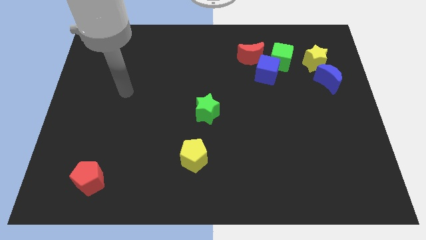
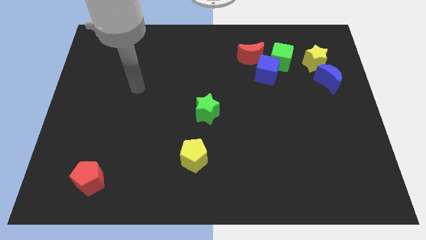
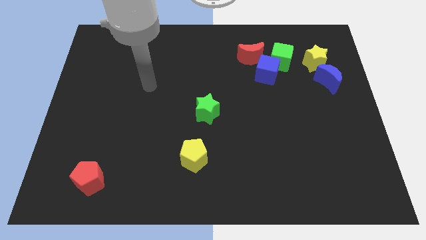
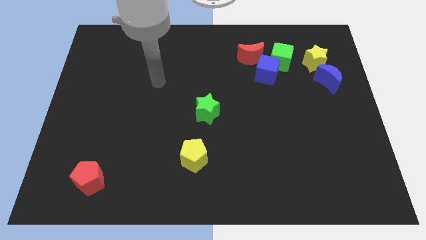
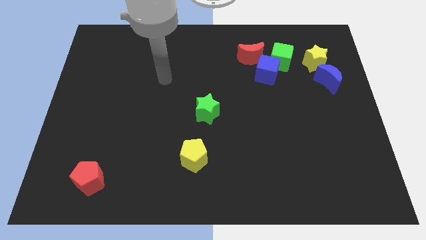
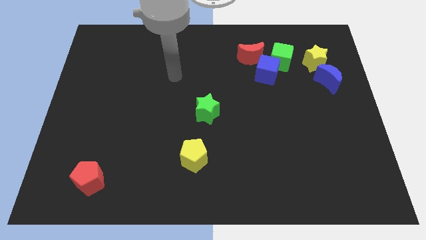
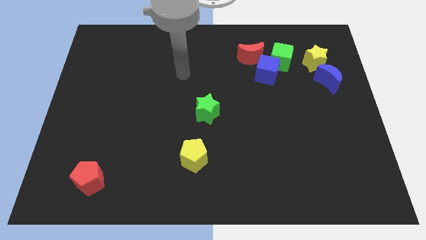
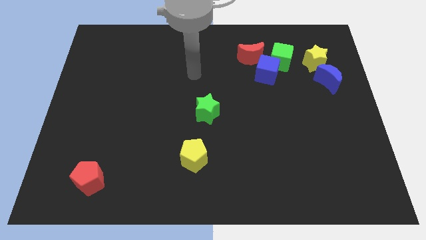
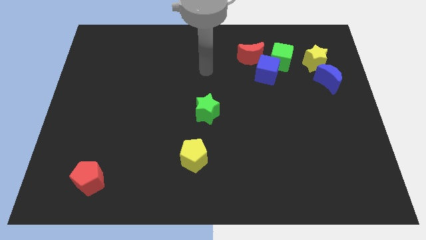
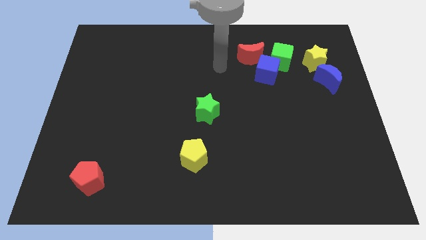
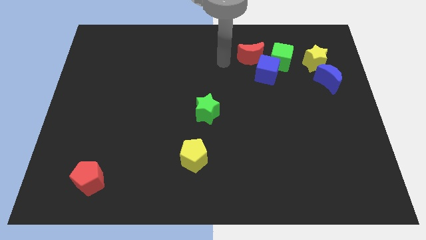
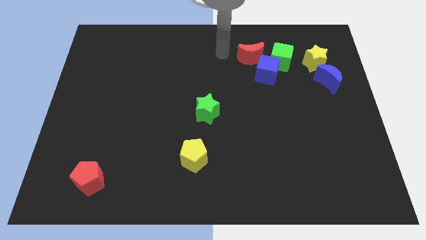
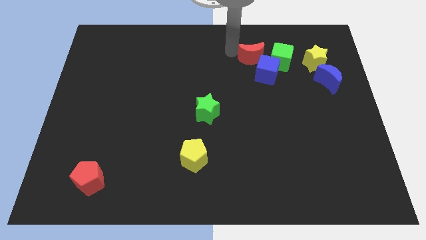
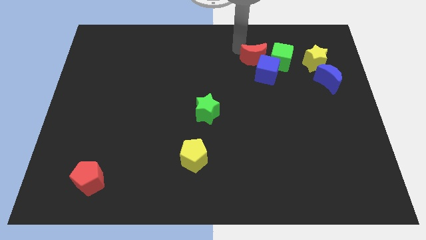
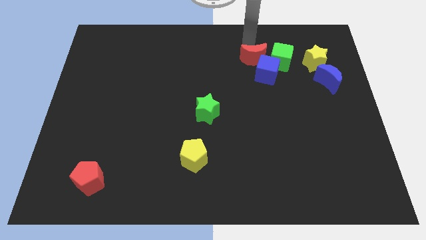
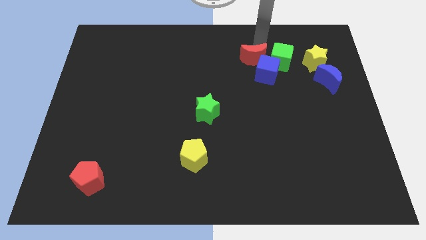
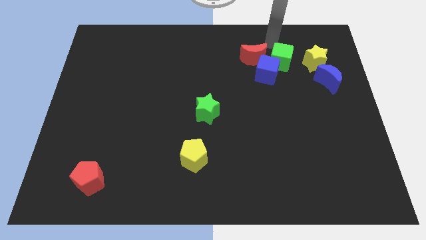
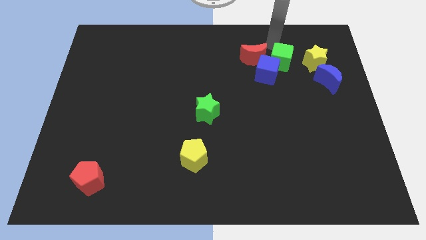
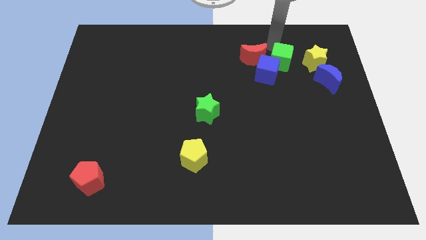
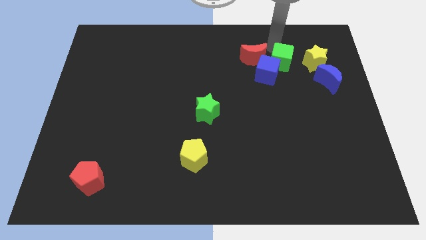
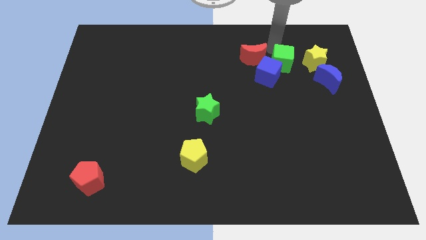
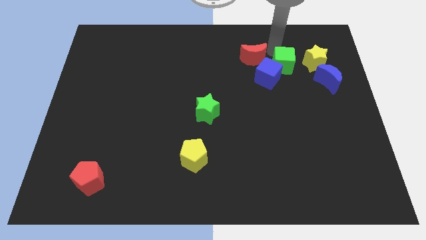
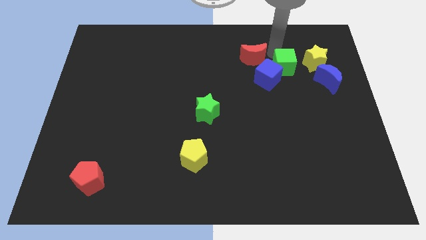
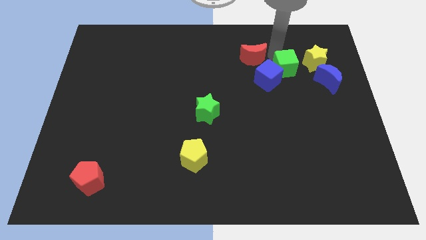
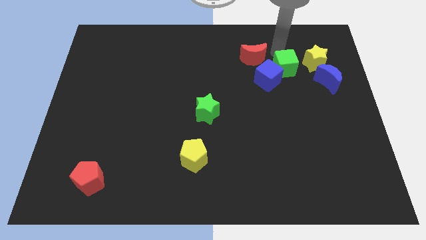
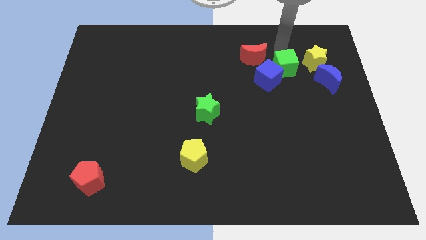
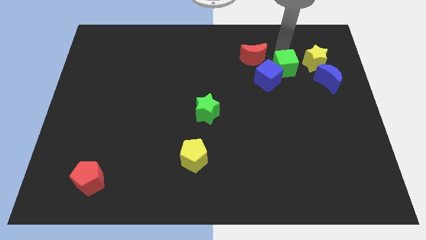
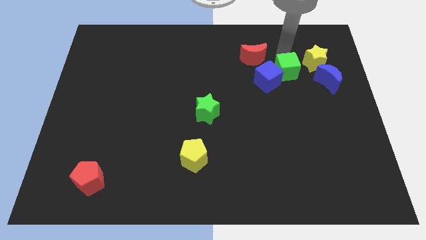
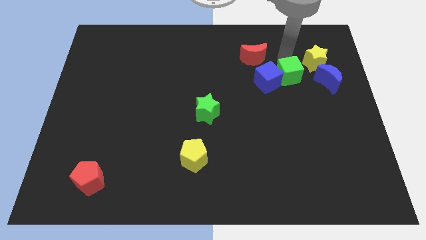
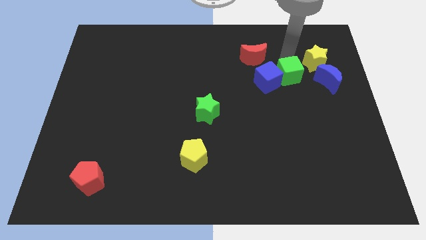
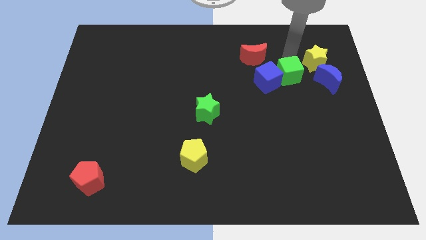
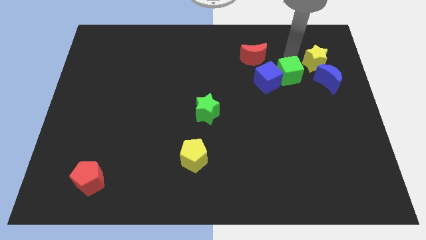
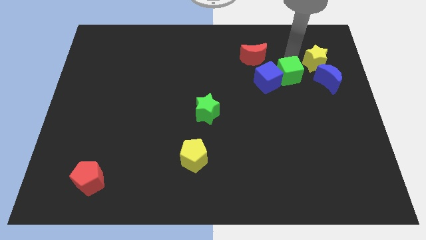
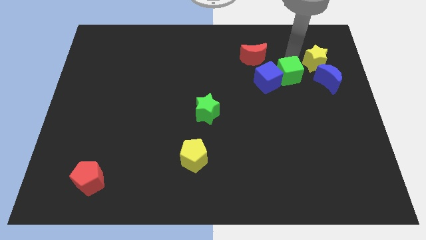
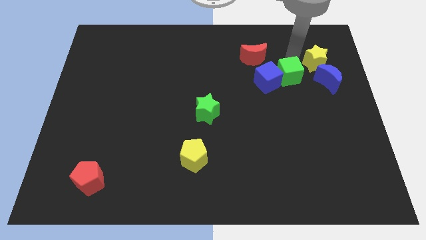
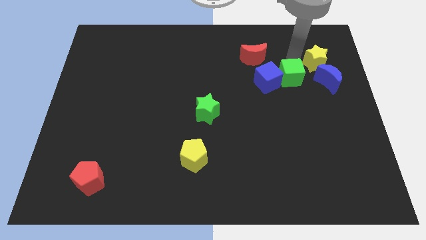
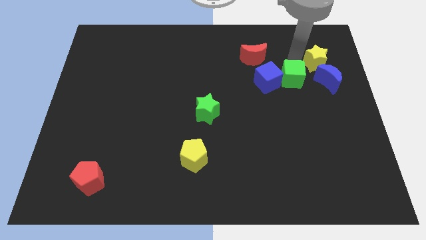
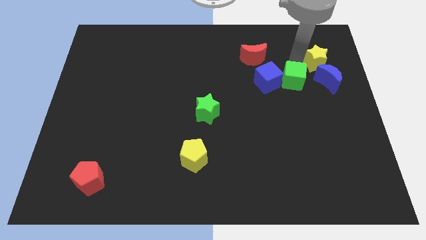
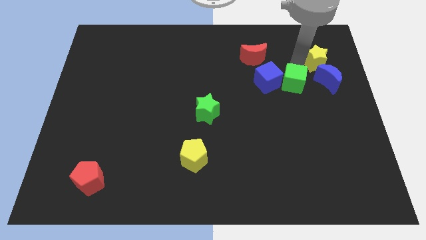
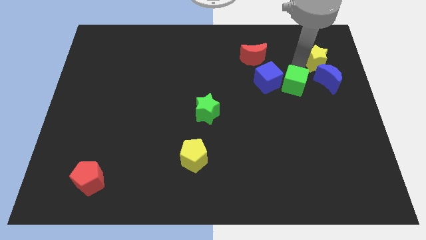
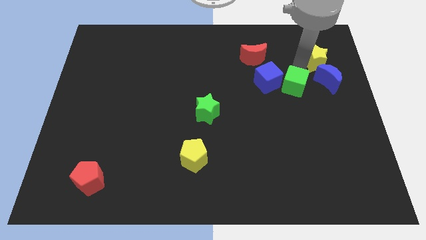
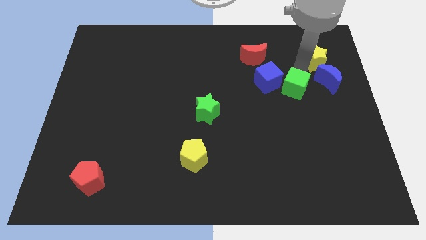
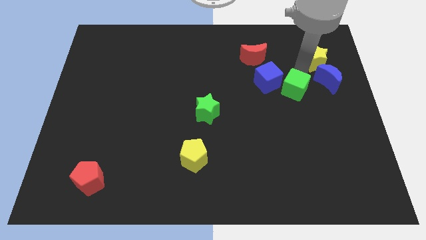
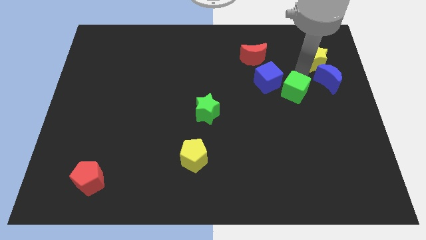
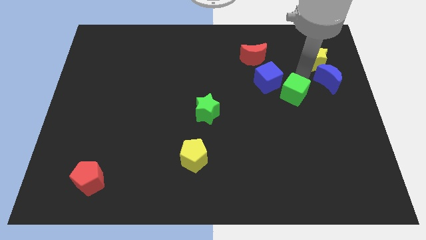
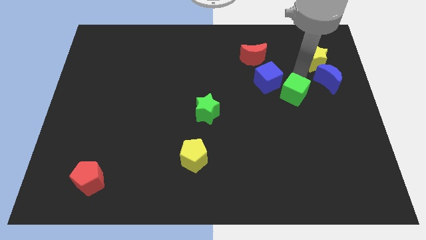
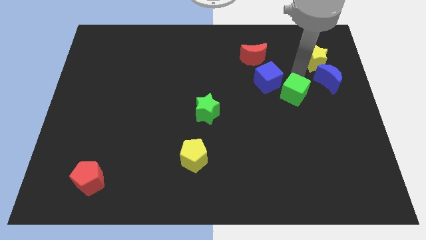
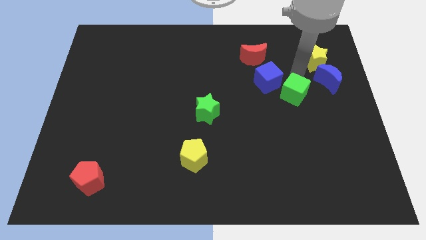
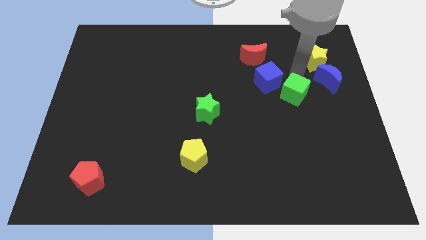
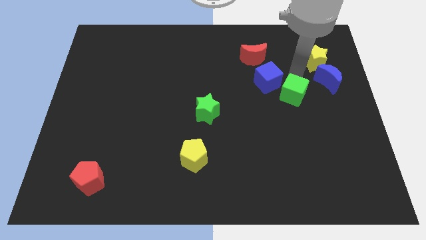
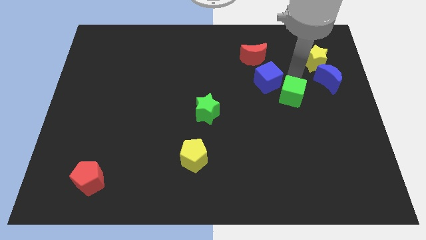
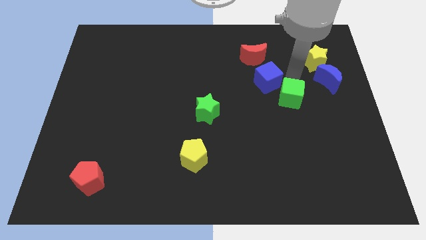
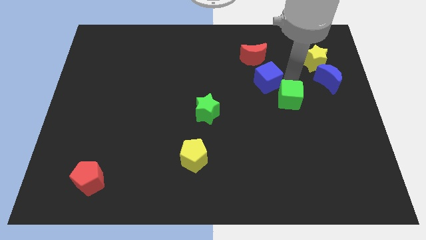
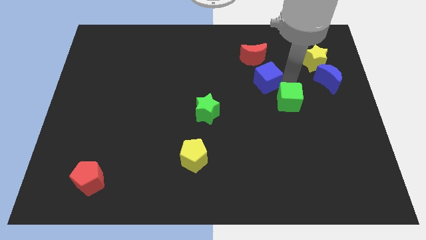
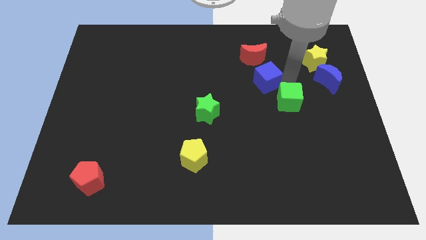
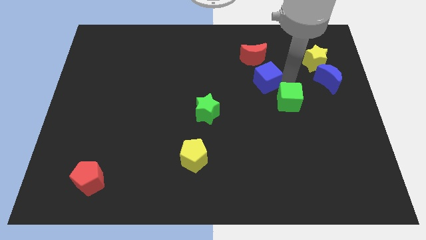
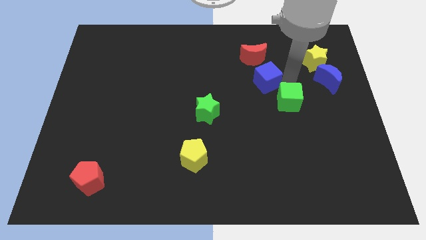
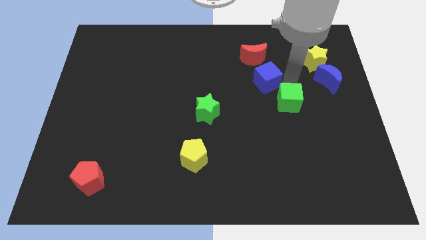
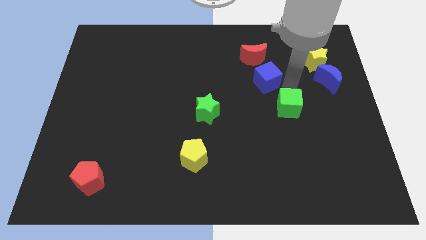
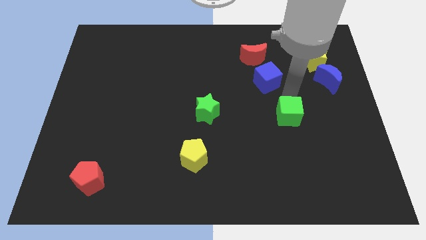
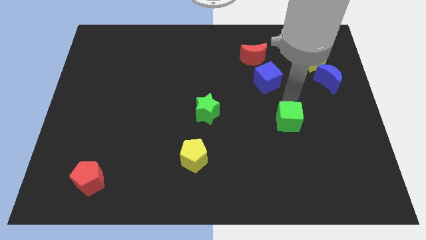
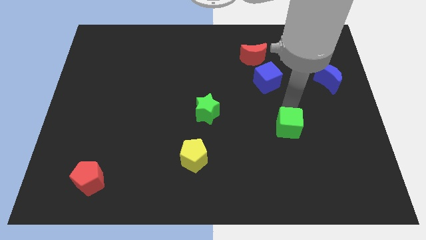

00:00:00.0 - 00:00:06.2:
slide the green cube downwards

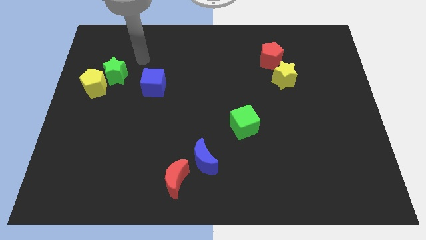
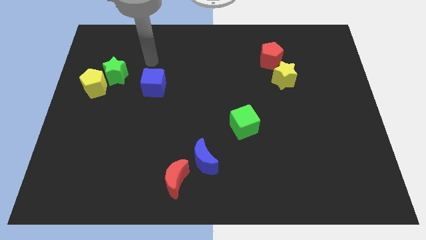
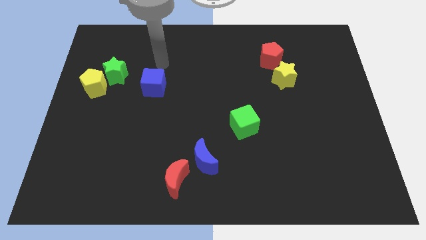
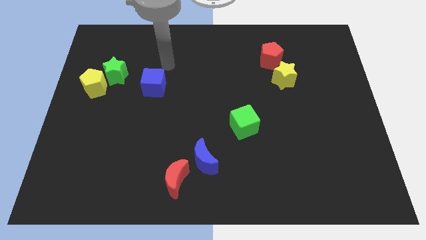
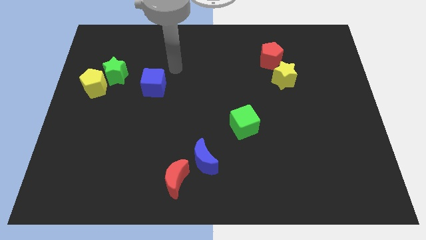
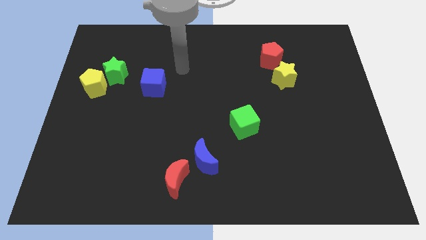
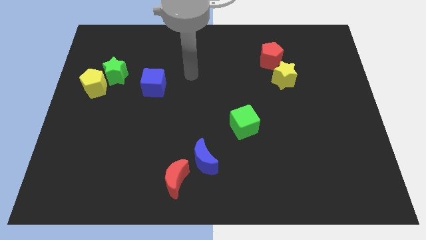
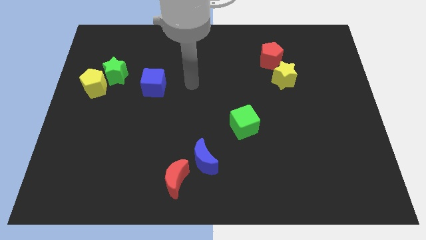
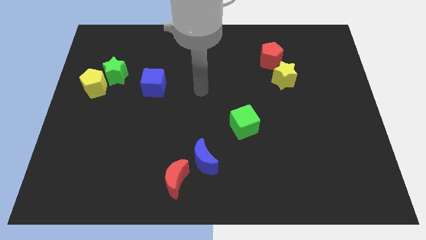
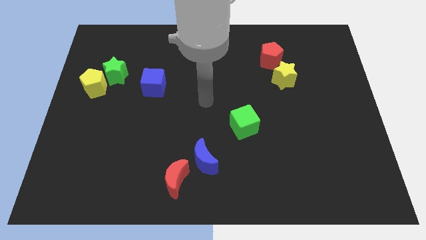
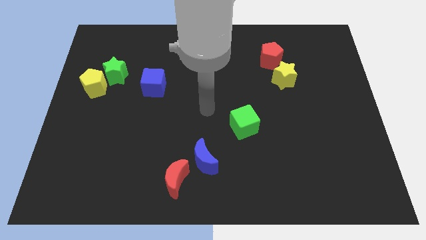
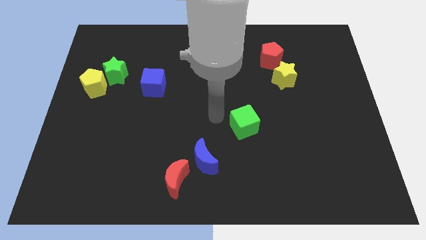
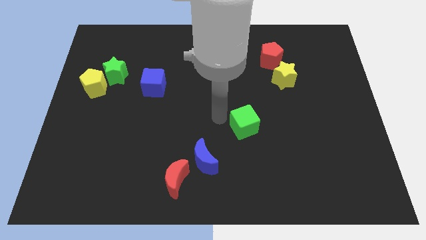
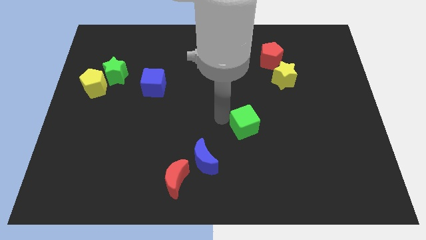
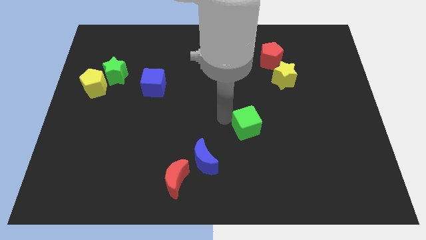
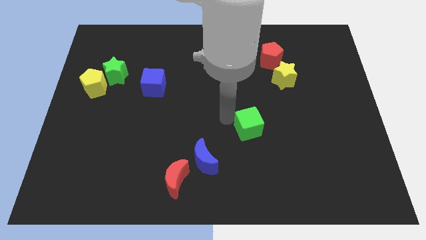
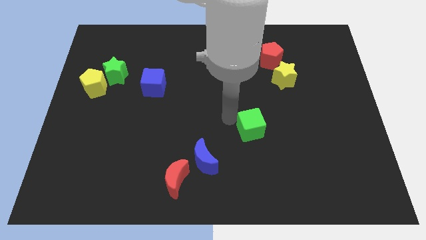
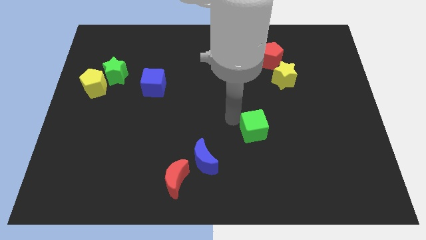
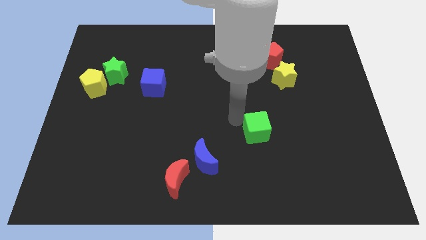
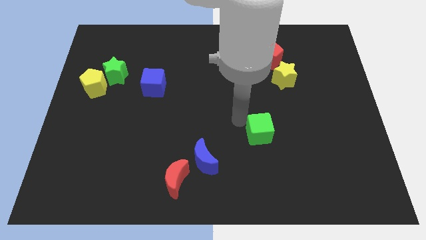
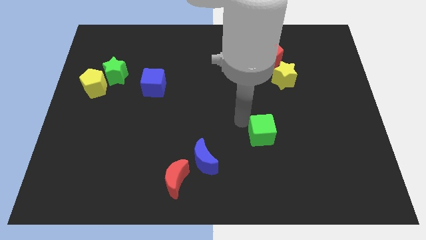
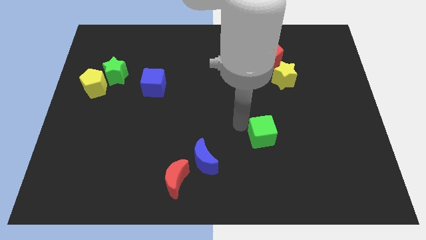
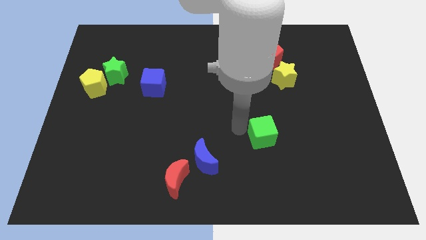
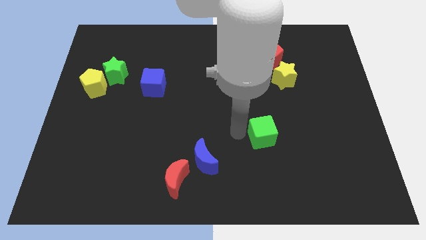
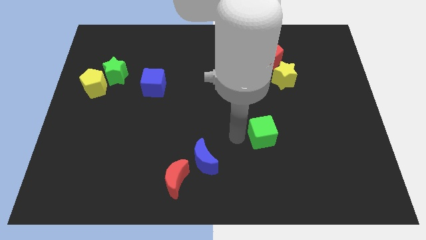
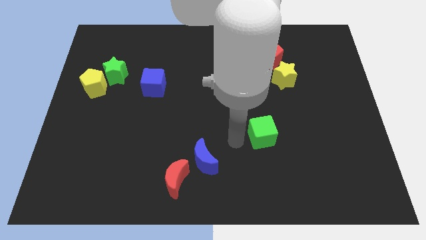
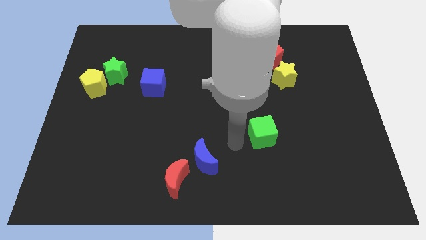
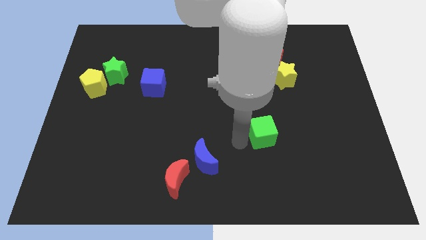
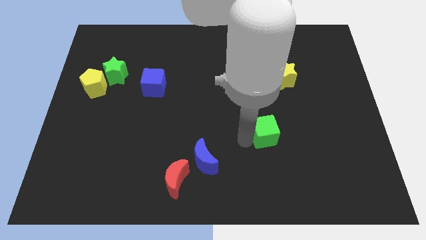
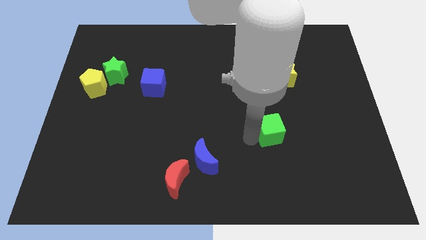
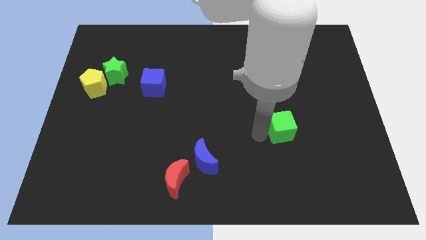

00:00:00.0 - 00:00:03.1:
push the green cube somewhat right
